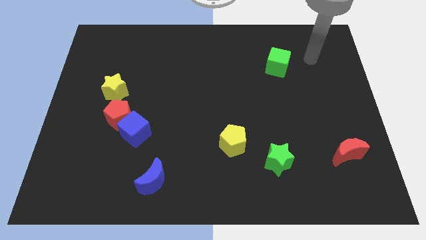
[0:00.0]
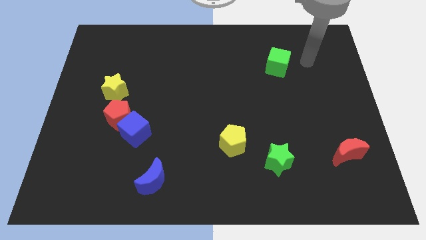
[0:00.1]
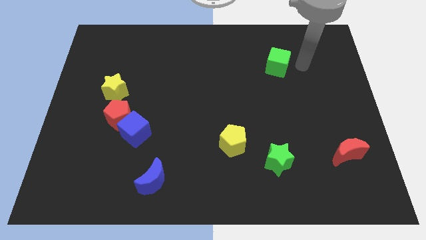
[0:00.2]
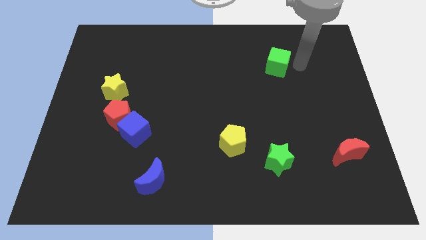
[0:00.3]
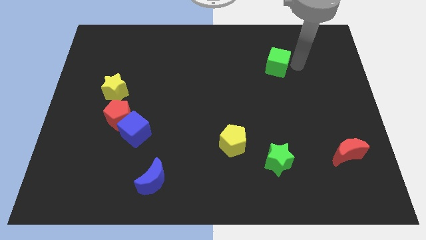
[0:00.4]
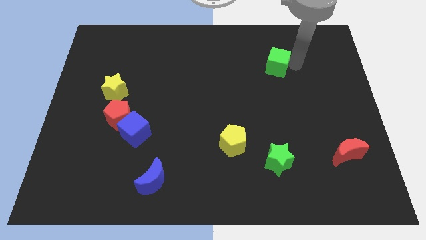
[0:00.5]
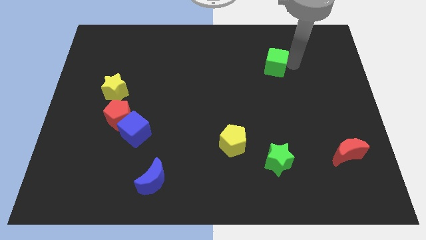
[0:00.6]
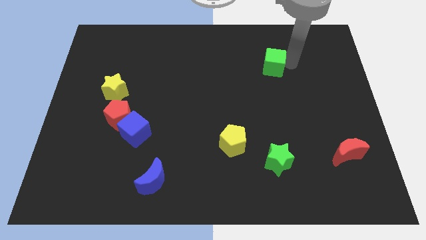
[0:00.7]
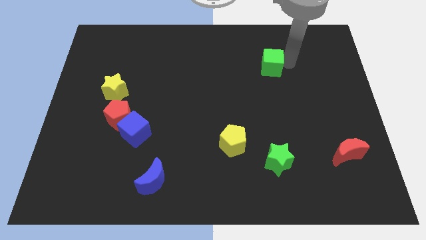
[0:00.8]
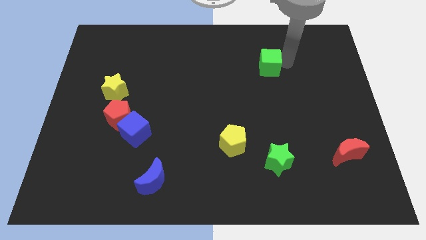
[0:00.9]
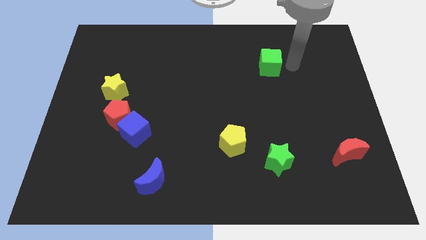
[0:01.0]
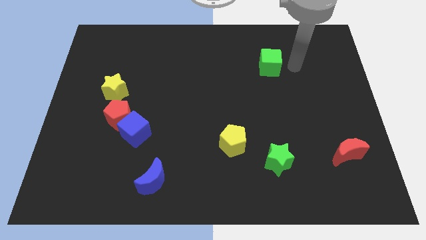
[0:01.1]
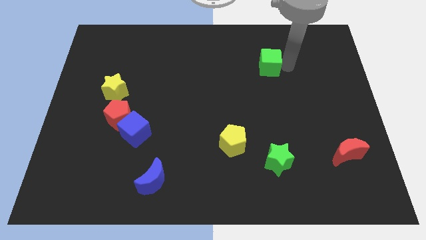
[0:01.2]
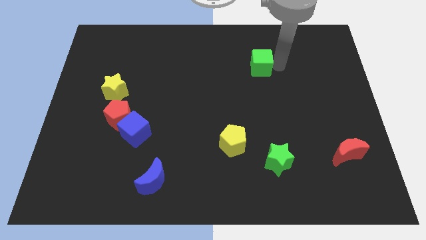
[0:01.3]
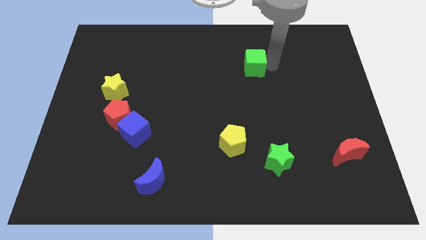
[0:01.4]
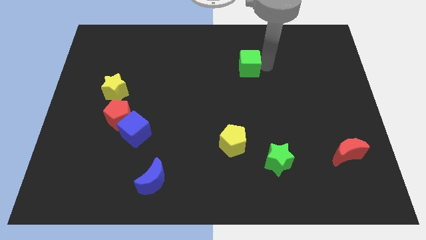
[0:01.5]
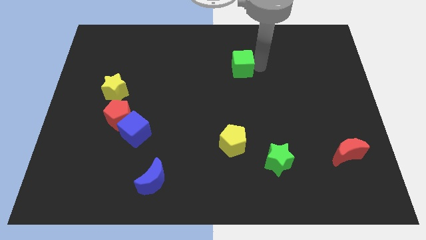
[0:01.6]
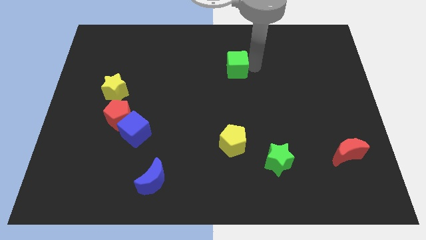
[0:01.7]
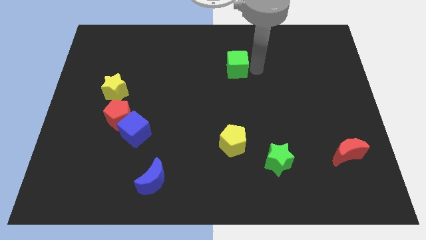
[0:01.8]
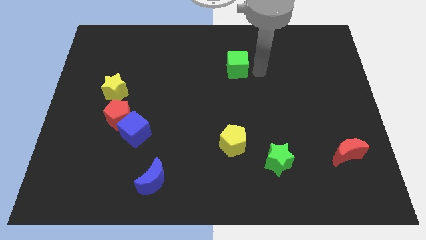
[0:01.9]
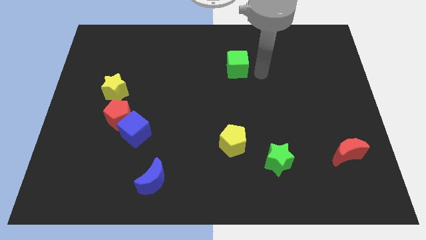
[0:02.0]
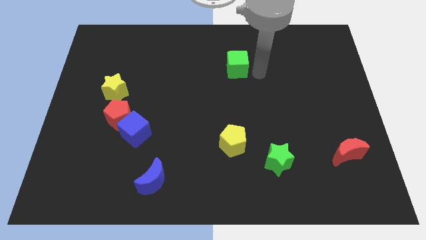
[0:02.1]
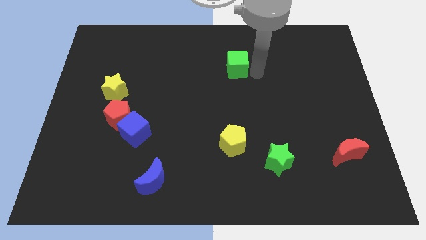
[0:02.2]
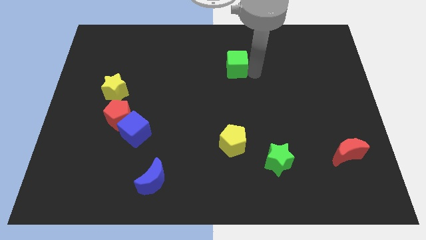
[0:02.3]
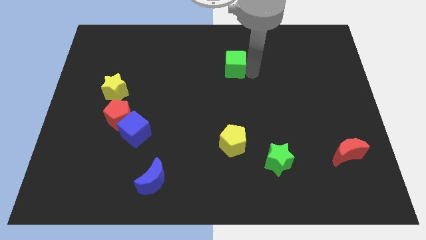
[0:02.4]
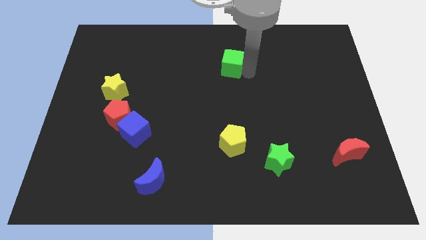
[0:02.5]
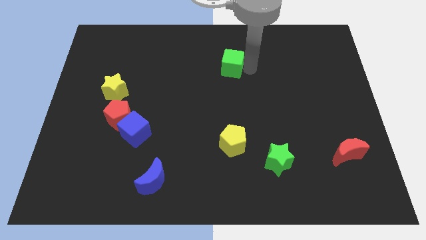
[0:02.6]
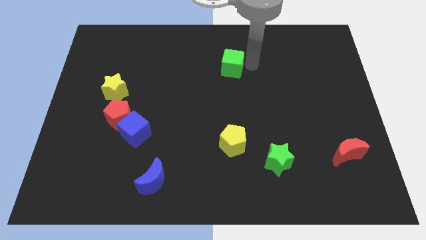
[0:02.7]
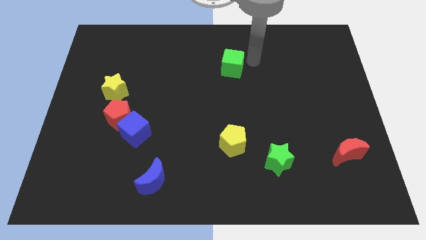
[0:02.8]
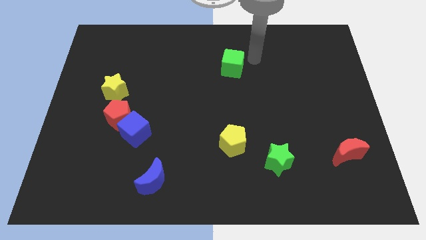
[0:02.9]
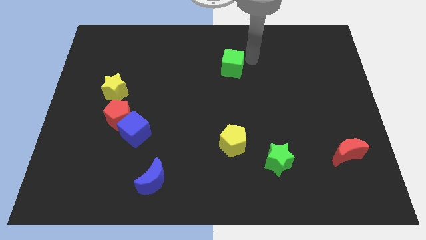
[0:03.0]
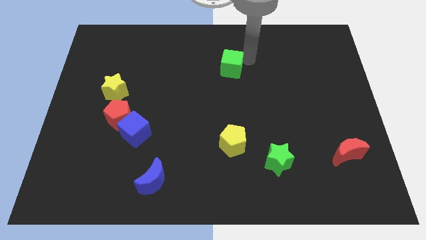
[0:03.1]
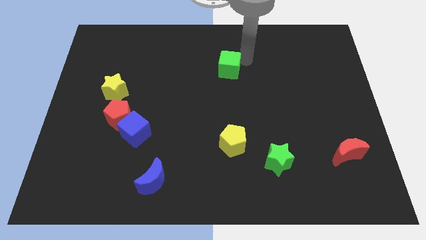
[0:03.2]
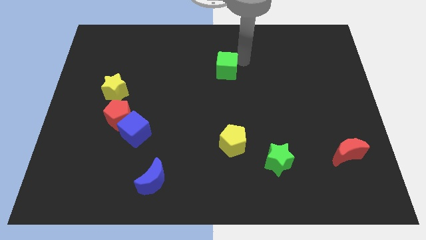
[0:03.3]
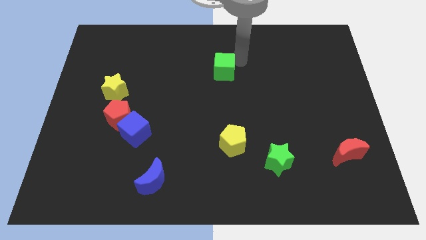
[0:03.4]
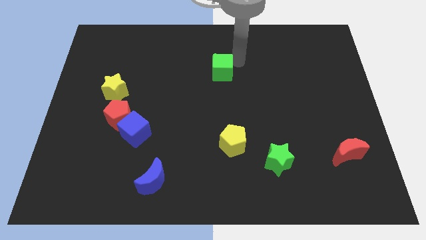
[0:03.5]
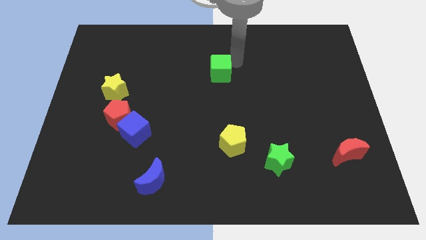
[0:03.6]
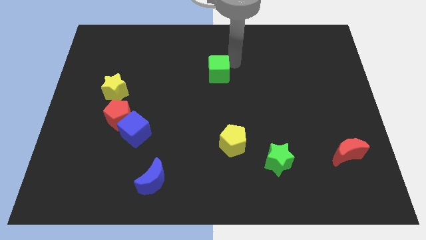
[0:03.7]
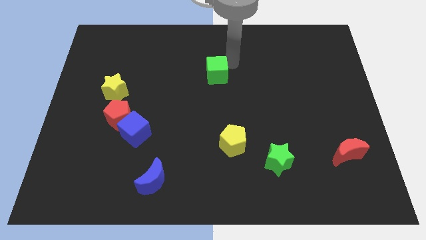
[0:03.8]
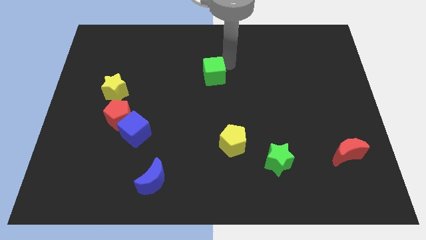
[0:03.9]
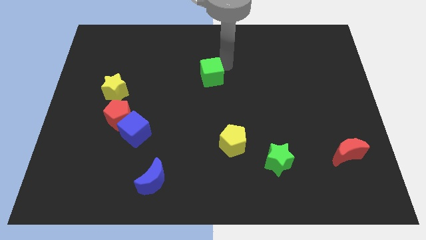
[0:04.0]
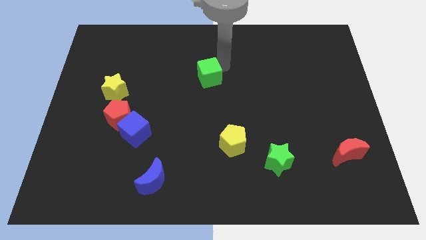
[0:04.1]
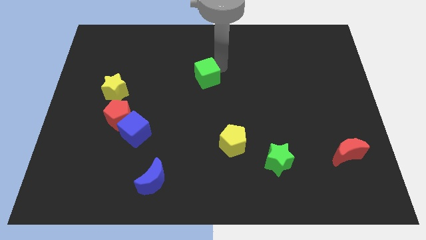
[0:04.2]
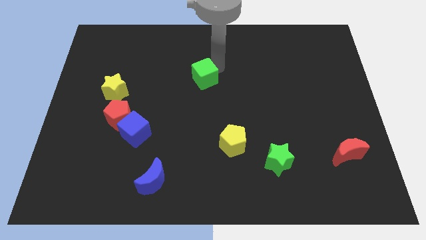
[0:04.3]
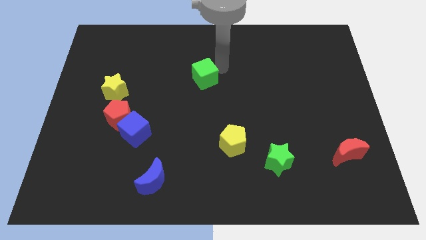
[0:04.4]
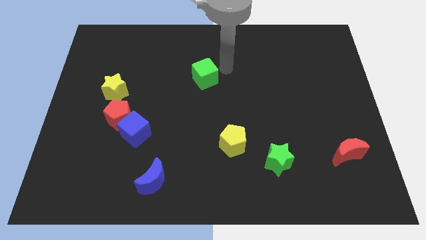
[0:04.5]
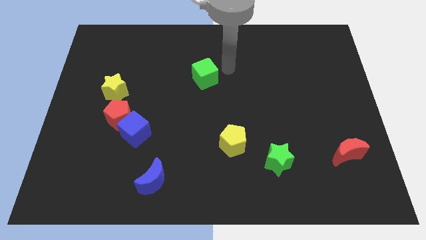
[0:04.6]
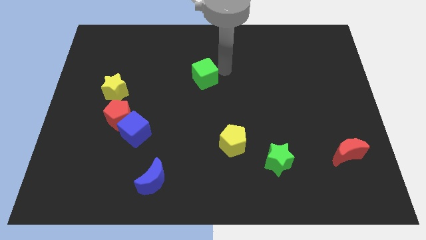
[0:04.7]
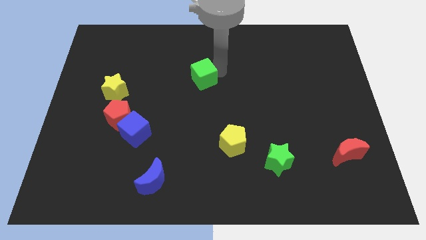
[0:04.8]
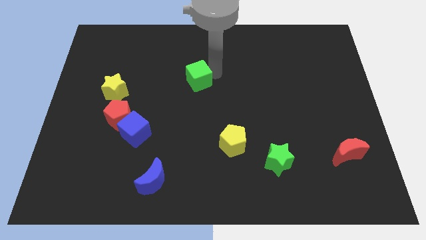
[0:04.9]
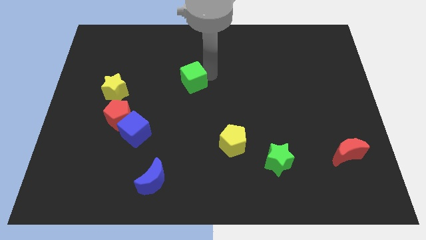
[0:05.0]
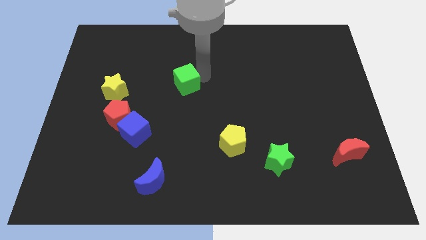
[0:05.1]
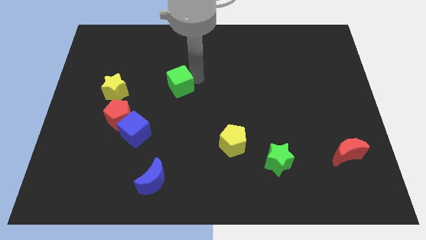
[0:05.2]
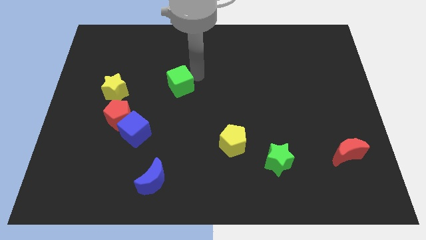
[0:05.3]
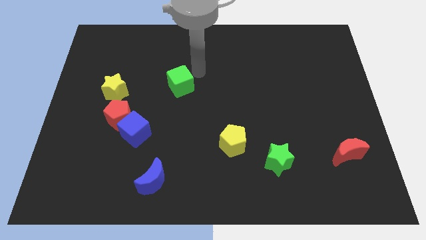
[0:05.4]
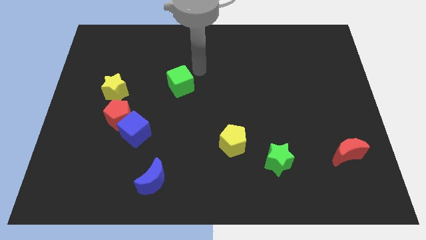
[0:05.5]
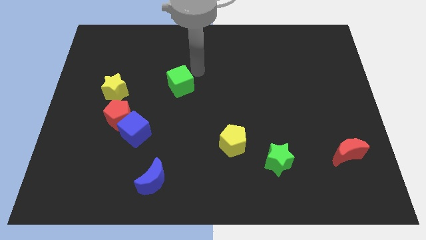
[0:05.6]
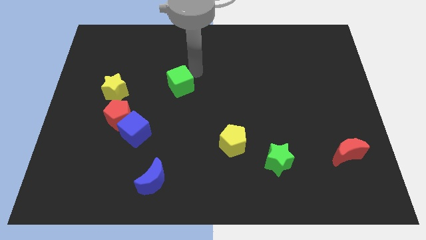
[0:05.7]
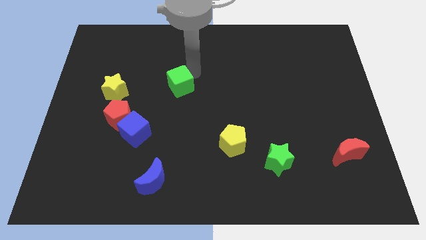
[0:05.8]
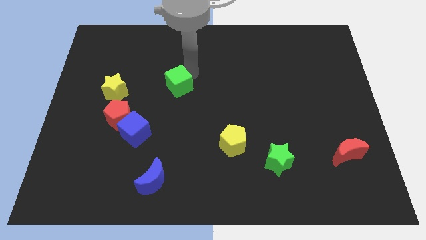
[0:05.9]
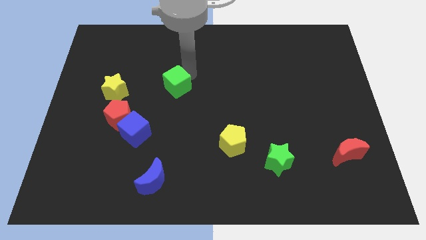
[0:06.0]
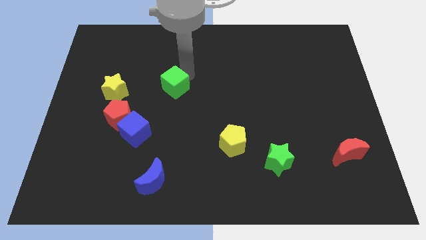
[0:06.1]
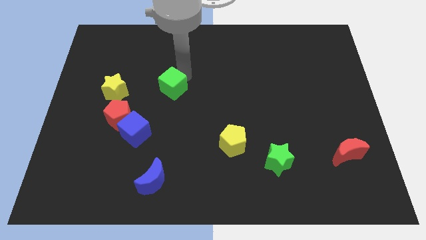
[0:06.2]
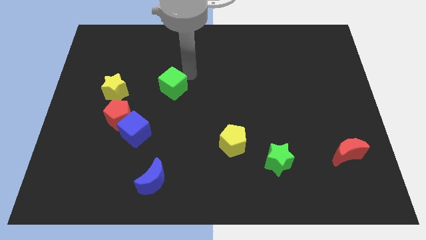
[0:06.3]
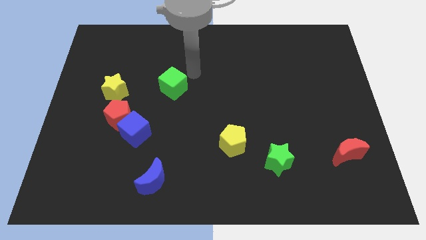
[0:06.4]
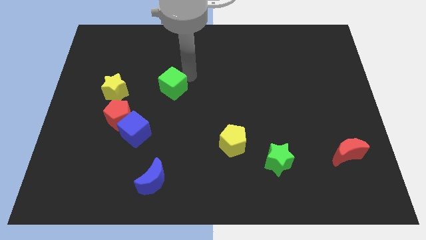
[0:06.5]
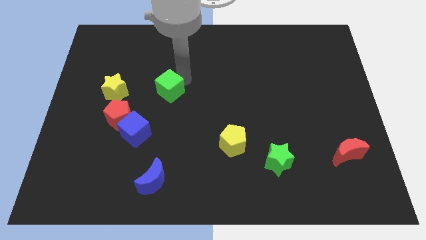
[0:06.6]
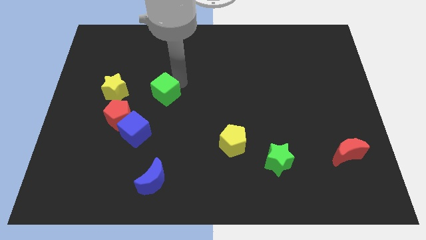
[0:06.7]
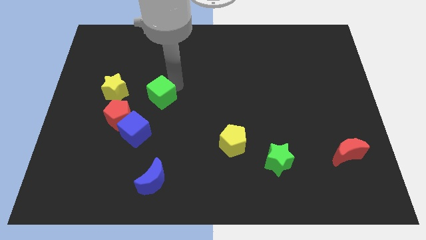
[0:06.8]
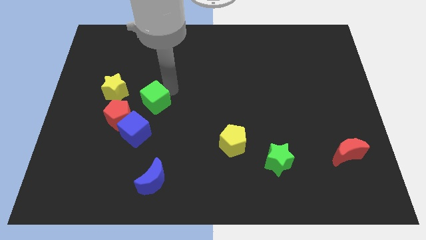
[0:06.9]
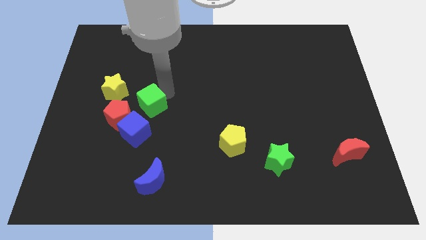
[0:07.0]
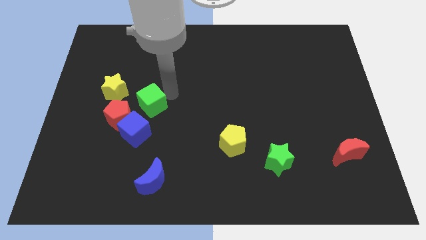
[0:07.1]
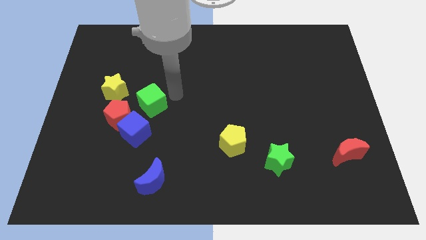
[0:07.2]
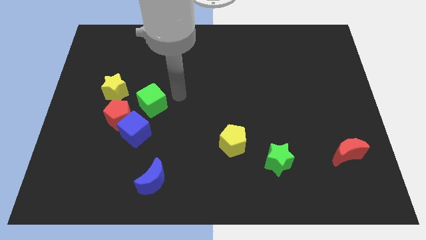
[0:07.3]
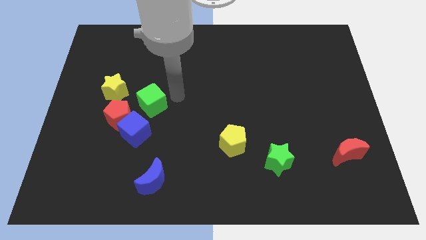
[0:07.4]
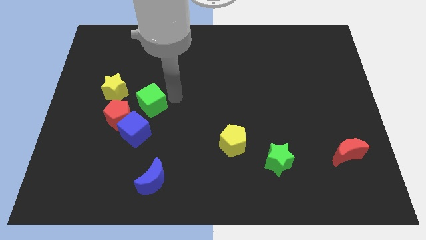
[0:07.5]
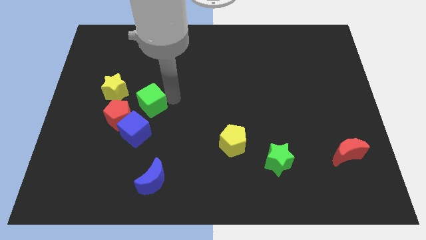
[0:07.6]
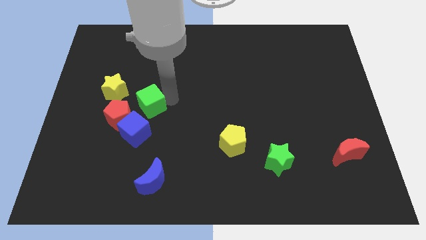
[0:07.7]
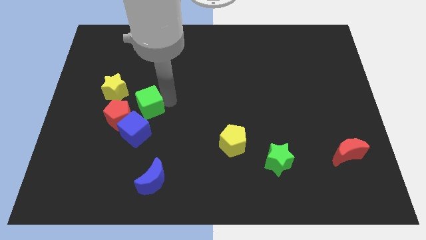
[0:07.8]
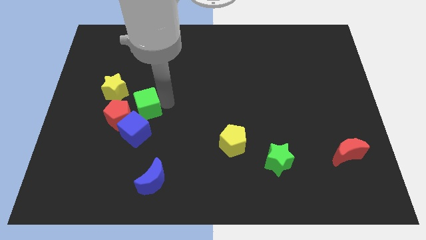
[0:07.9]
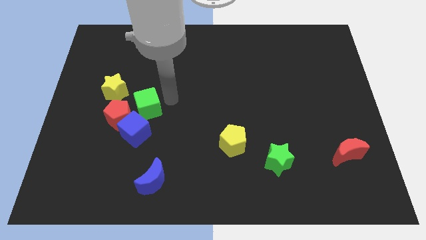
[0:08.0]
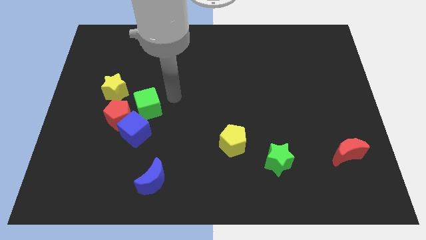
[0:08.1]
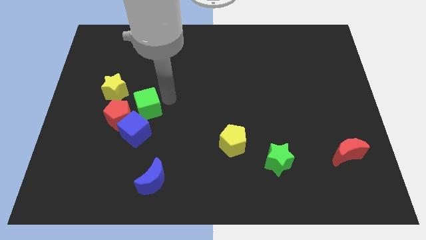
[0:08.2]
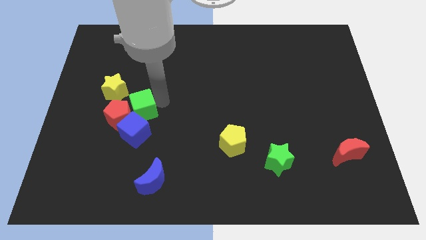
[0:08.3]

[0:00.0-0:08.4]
put the green cube to the red pentagon
